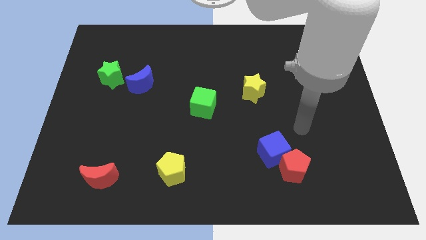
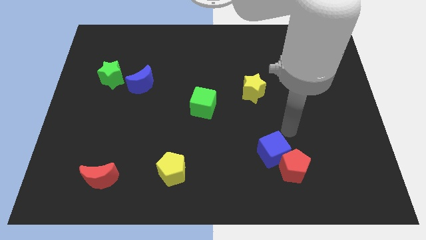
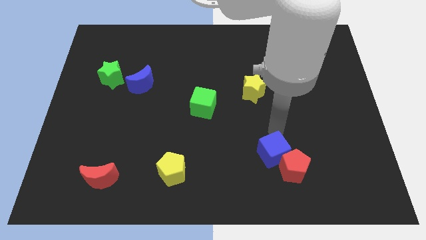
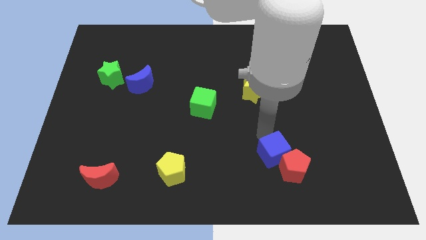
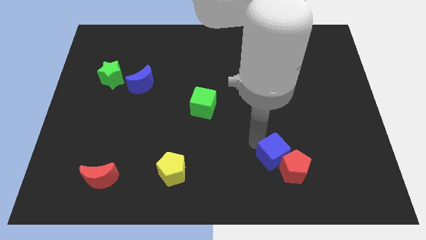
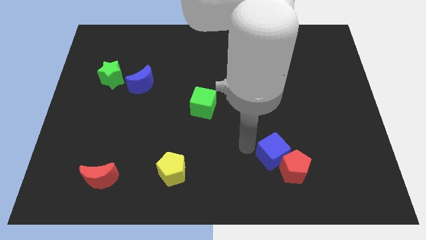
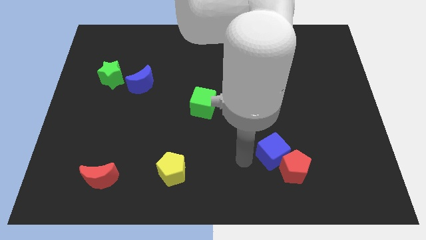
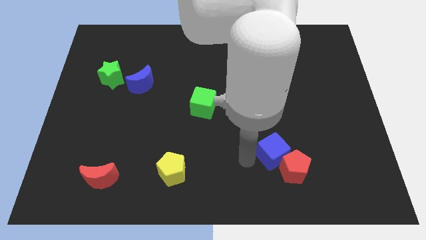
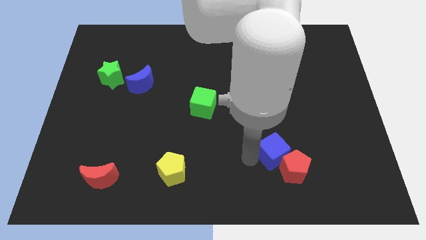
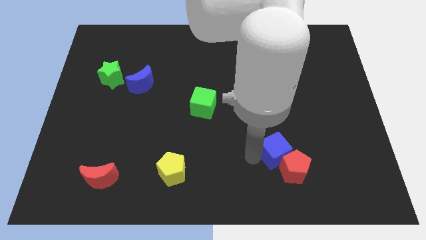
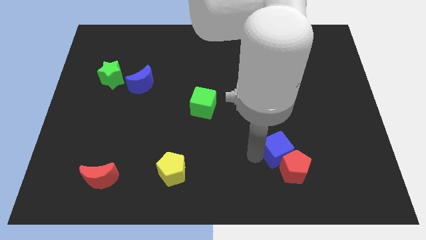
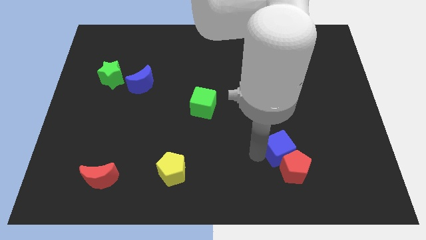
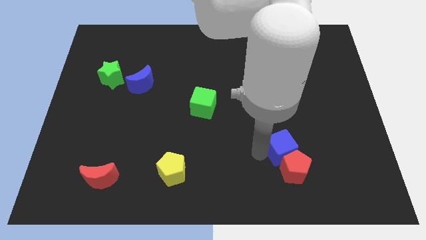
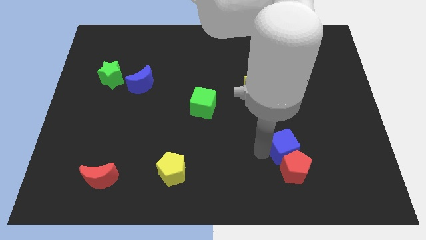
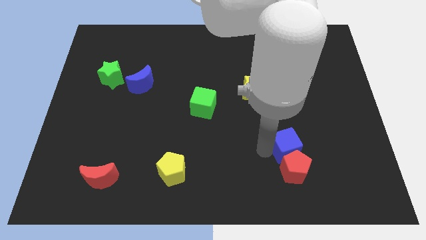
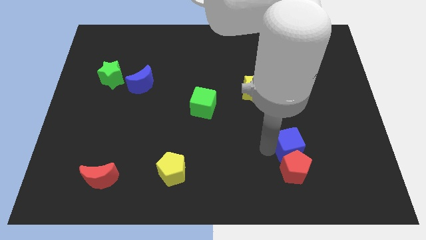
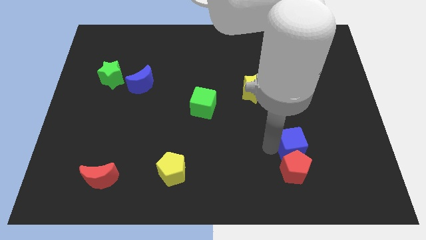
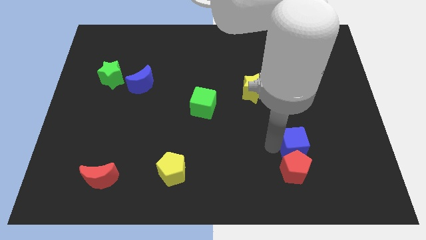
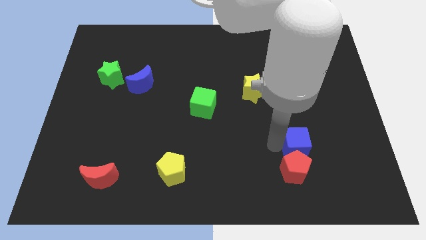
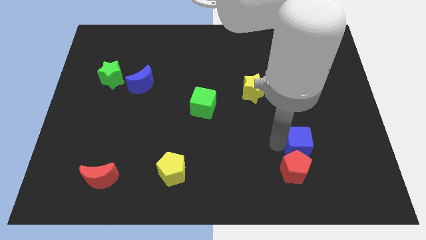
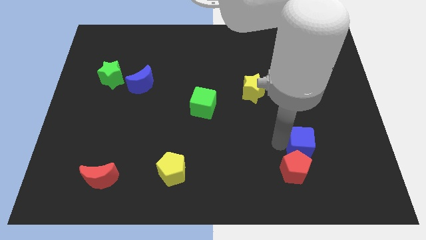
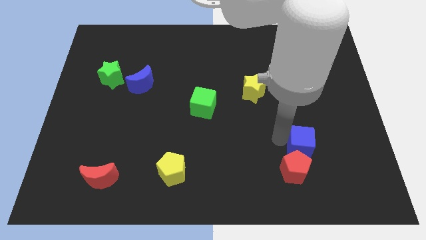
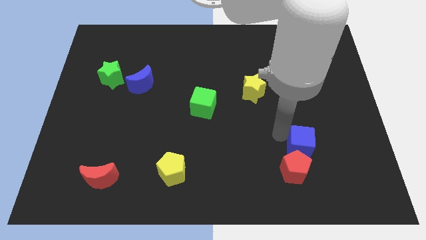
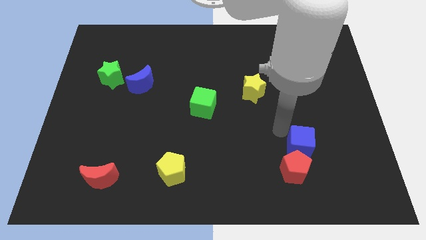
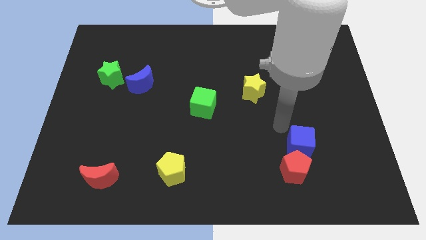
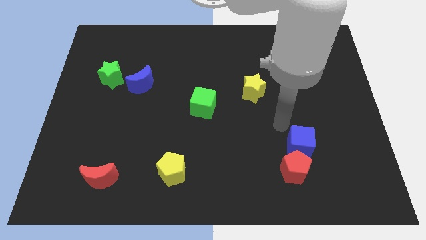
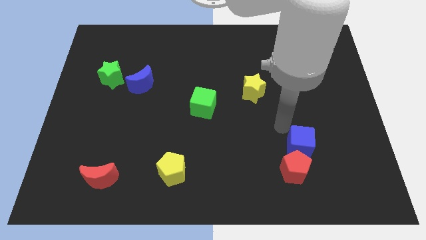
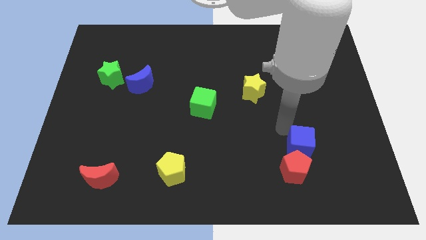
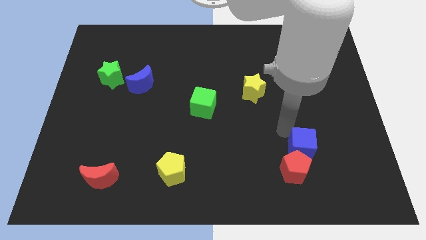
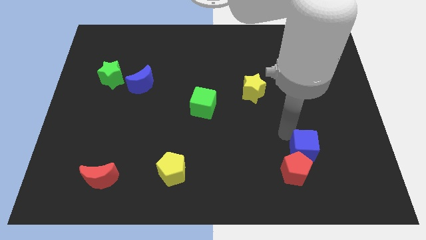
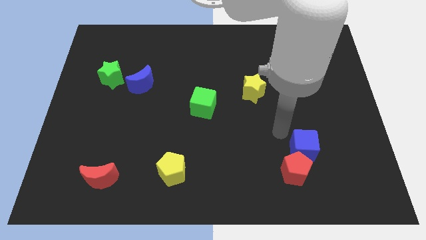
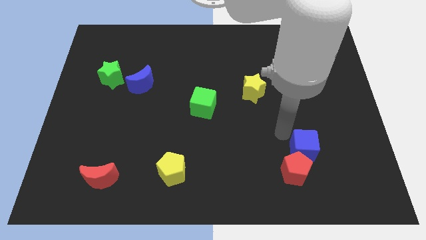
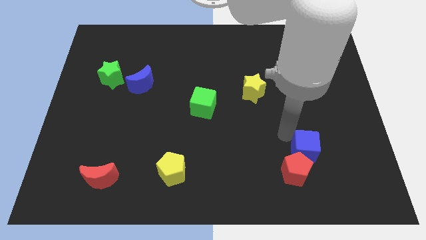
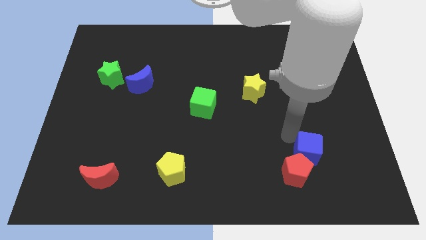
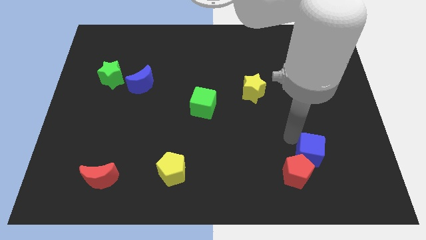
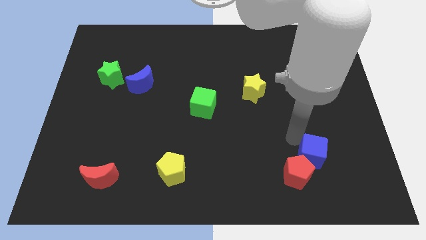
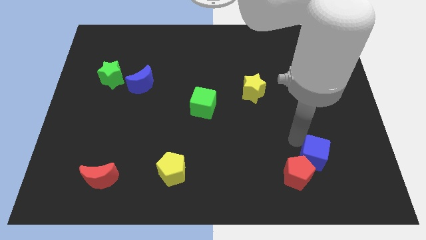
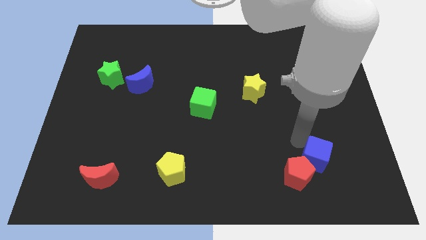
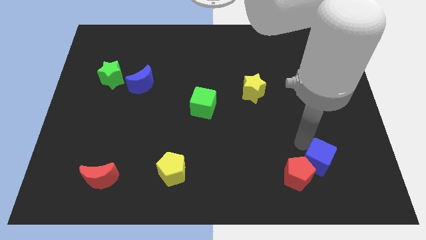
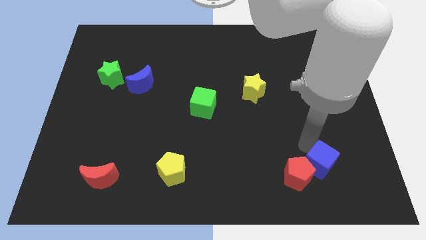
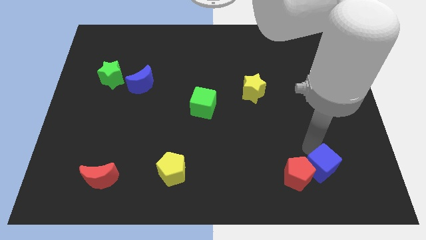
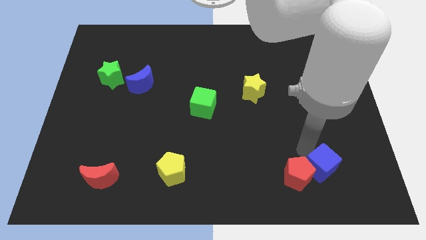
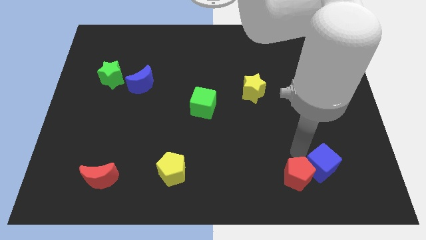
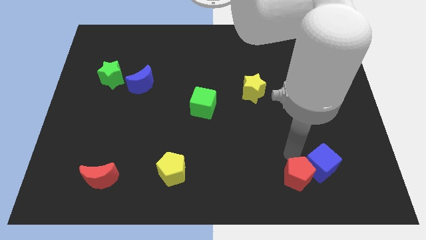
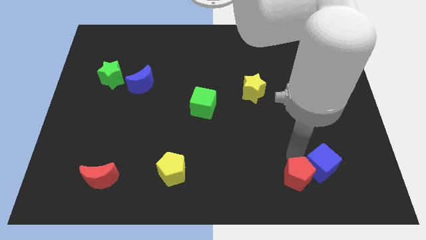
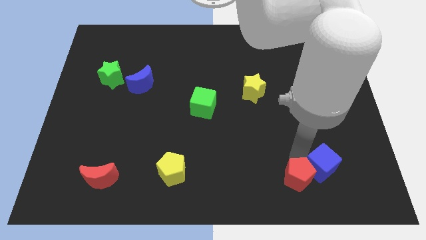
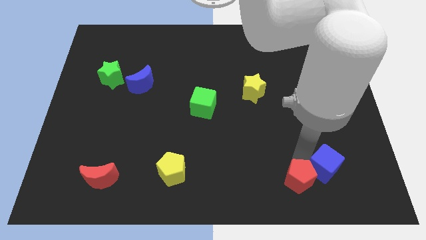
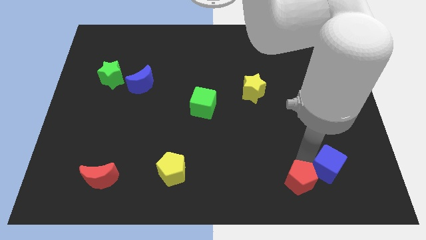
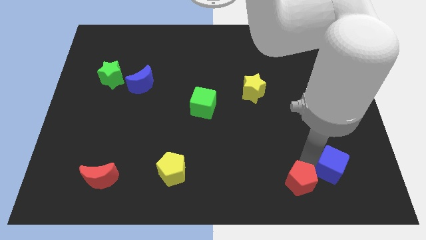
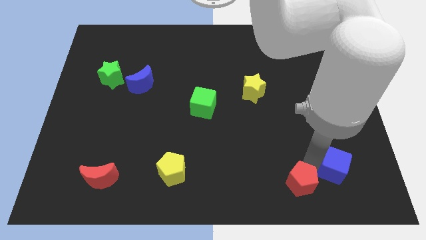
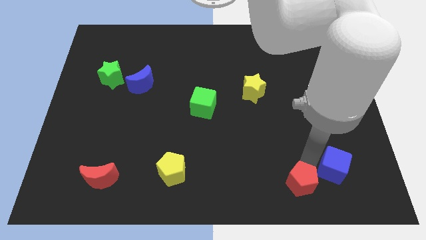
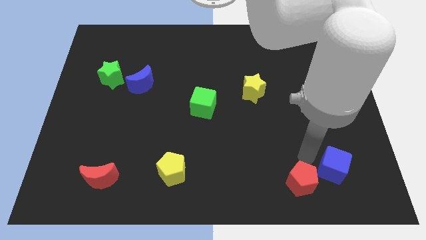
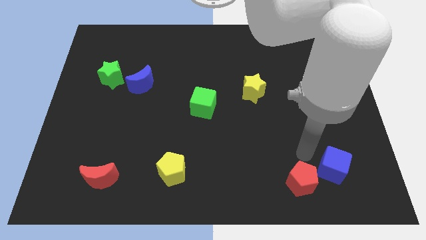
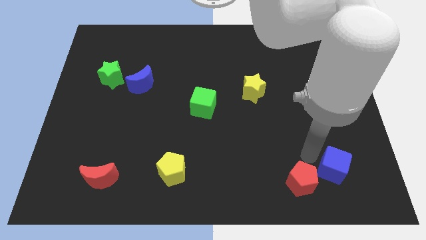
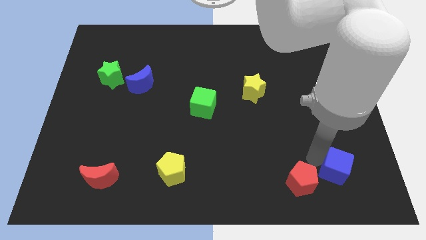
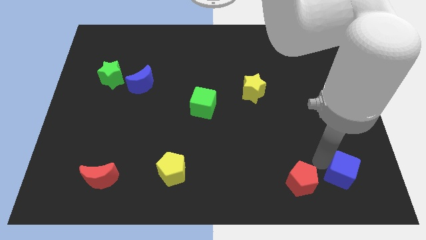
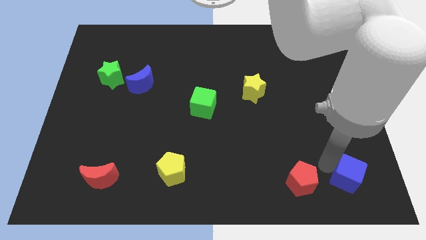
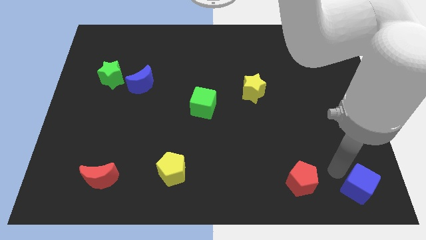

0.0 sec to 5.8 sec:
slide the blue cube to the bottom right corner

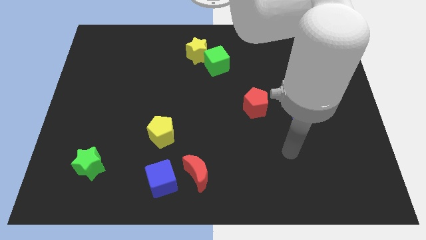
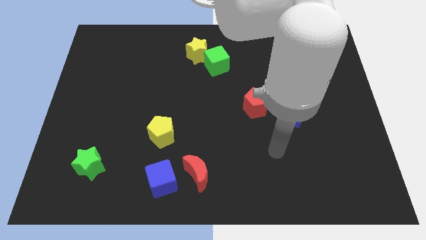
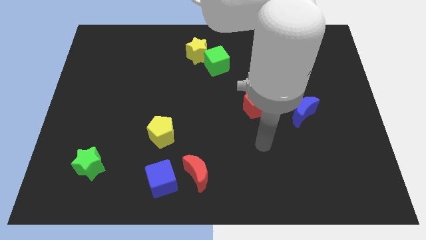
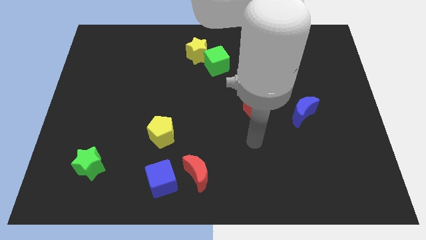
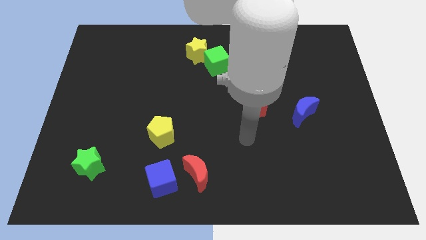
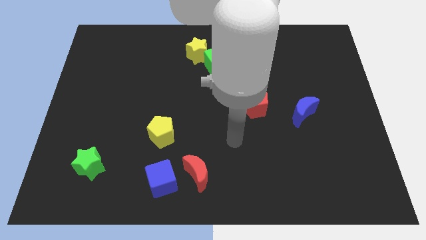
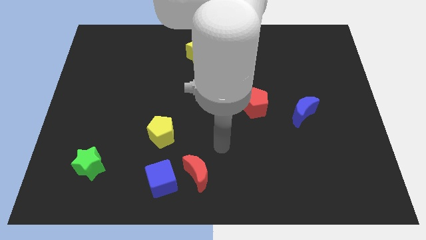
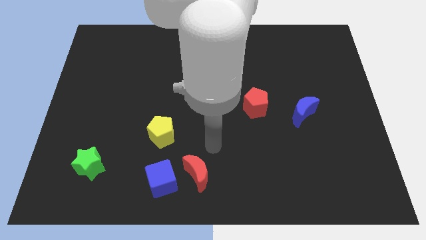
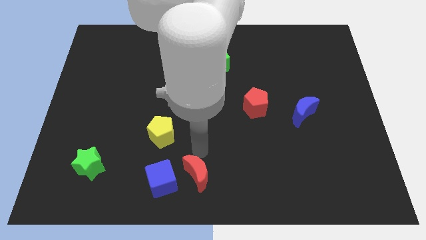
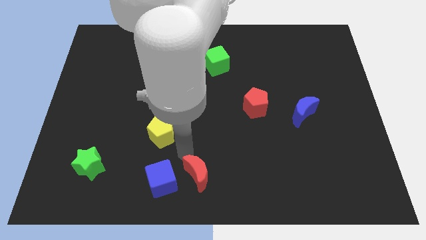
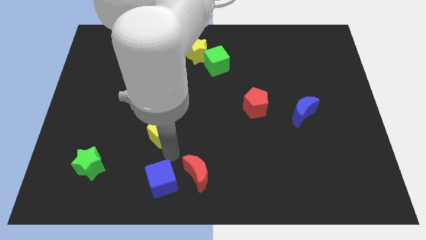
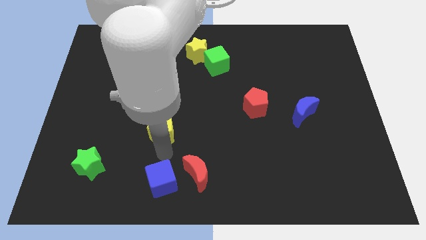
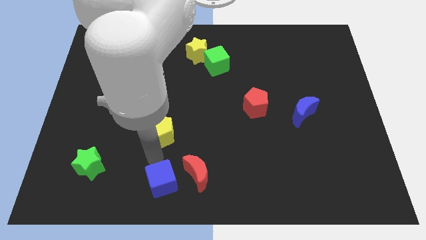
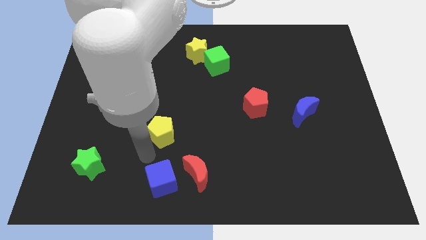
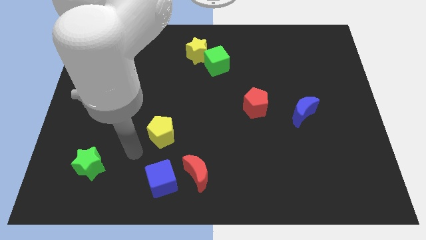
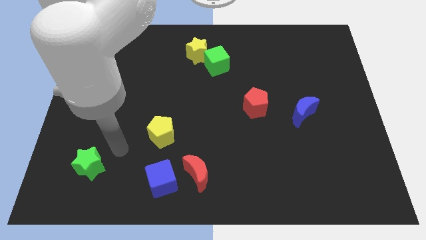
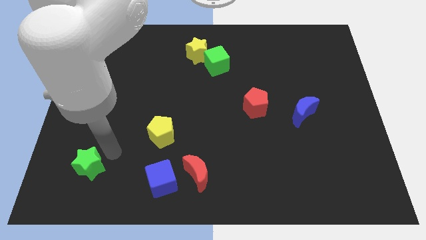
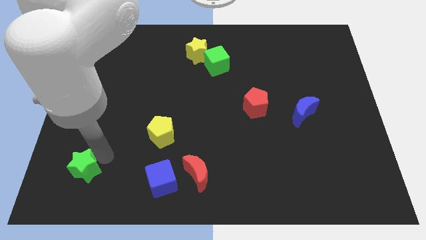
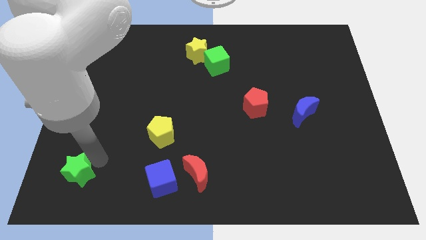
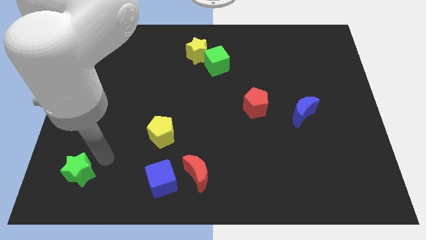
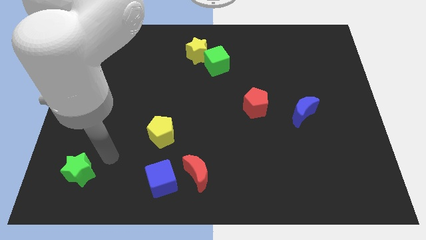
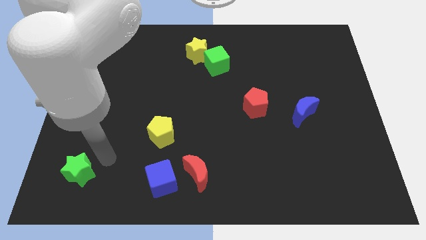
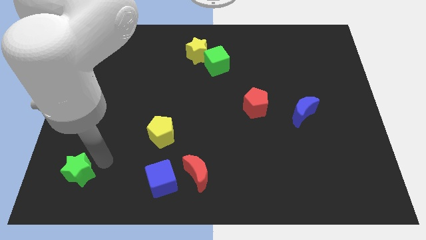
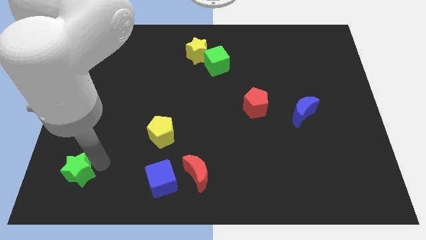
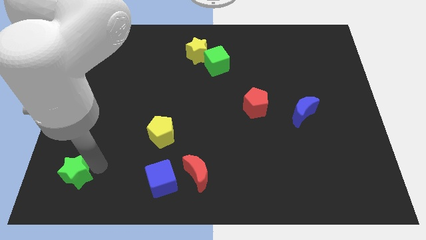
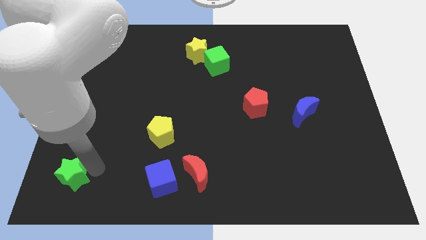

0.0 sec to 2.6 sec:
put the green star to the bottom left
